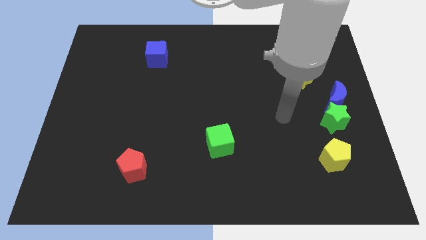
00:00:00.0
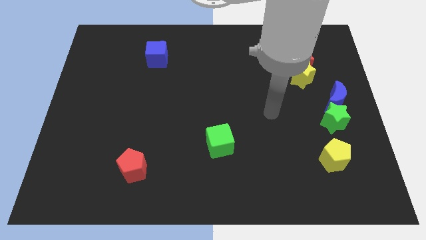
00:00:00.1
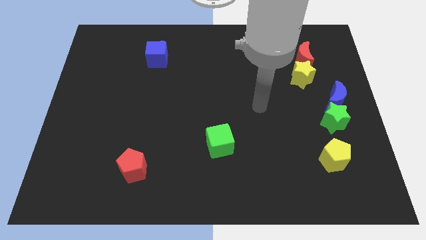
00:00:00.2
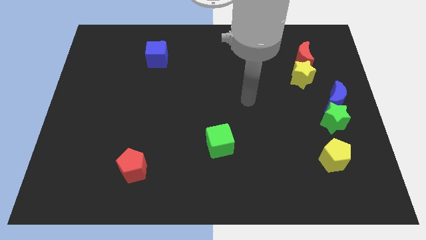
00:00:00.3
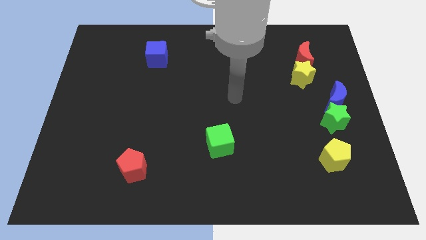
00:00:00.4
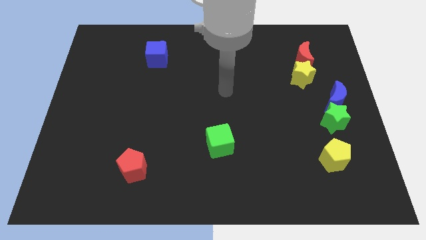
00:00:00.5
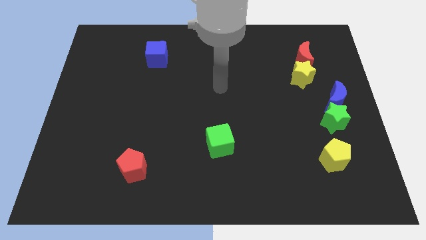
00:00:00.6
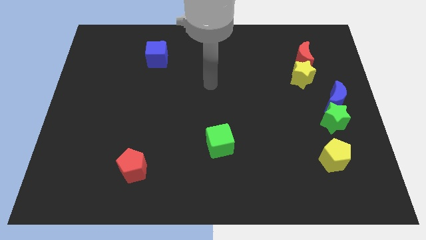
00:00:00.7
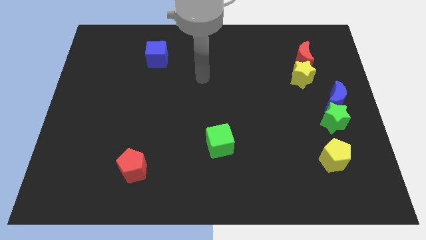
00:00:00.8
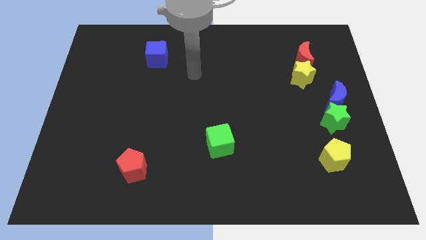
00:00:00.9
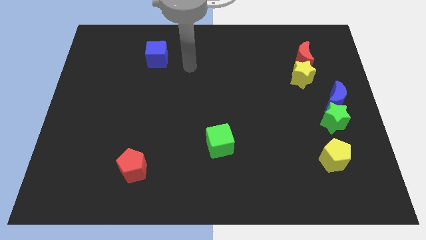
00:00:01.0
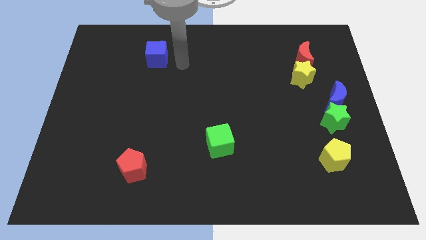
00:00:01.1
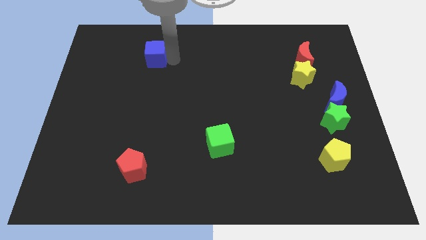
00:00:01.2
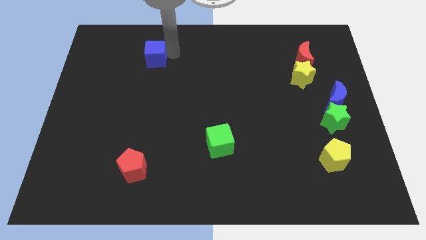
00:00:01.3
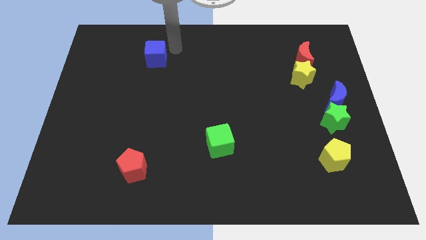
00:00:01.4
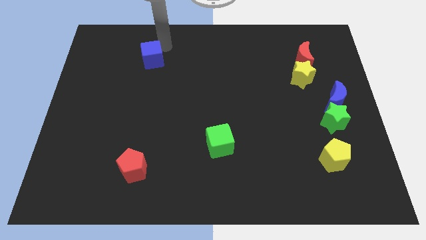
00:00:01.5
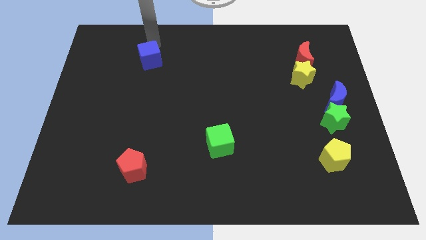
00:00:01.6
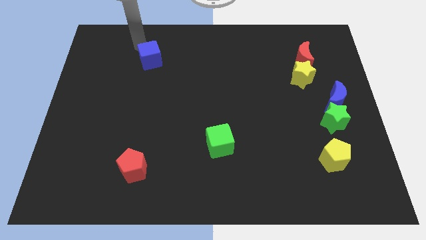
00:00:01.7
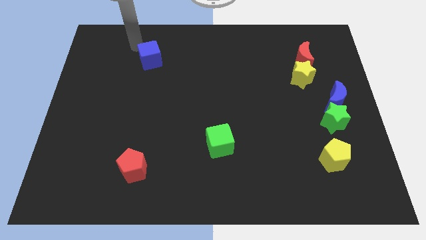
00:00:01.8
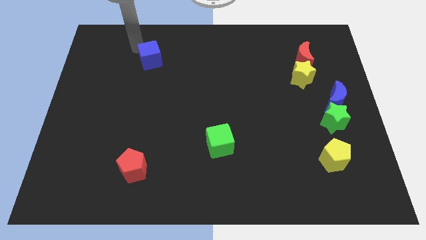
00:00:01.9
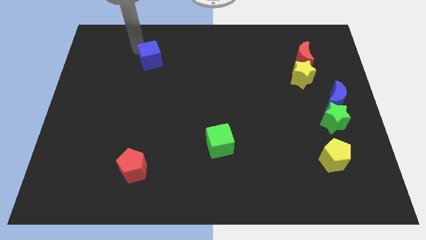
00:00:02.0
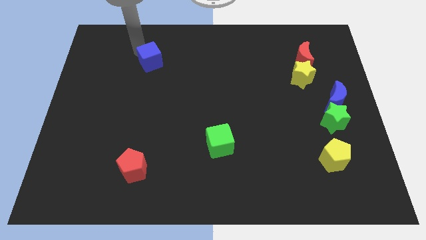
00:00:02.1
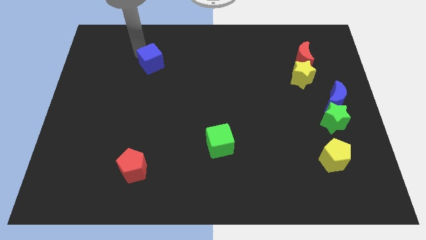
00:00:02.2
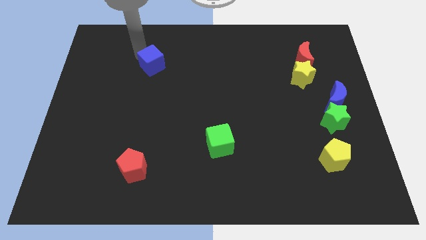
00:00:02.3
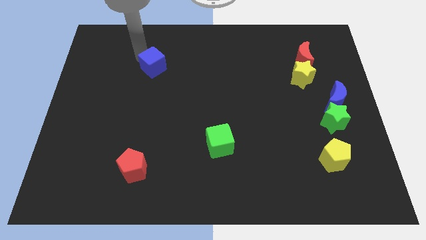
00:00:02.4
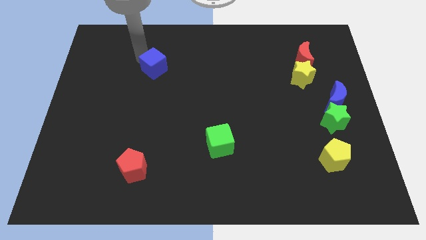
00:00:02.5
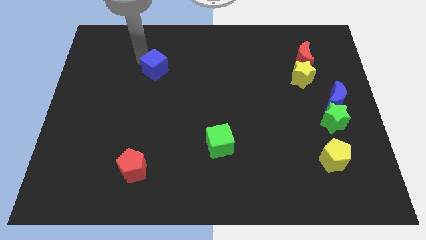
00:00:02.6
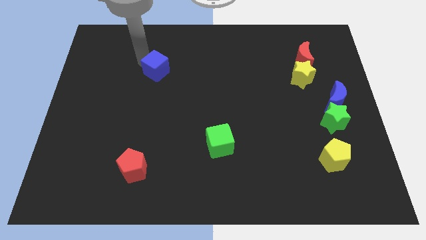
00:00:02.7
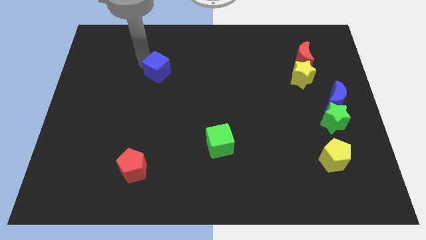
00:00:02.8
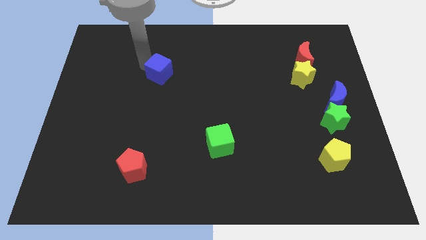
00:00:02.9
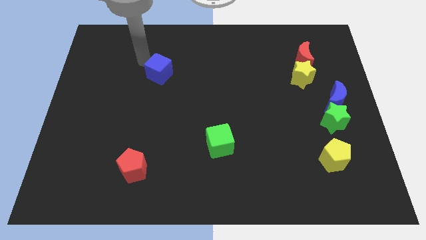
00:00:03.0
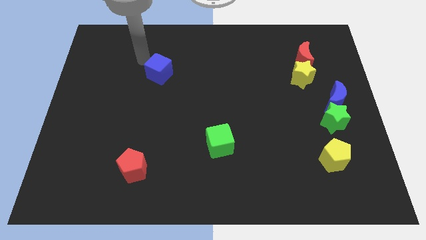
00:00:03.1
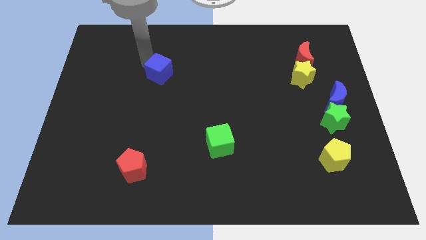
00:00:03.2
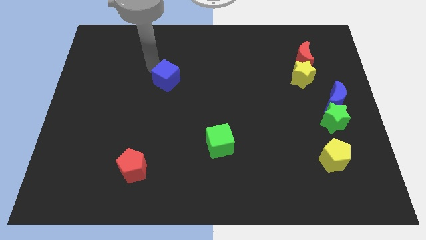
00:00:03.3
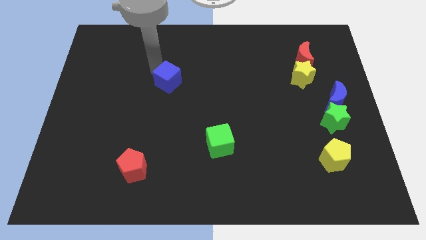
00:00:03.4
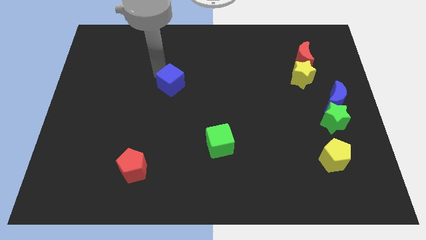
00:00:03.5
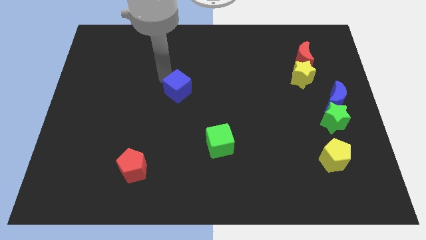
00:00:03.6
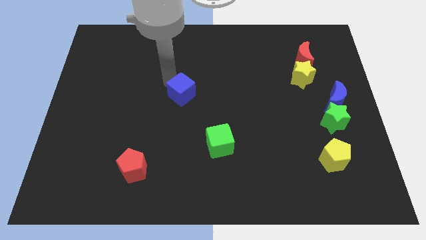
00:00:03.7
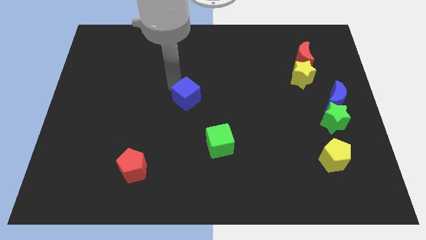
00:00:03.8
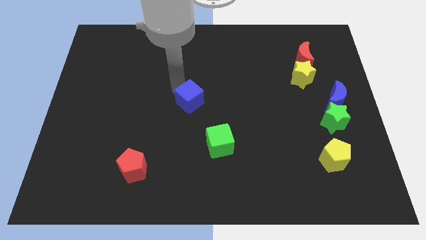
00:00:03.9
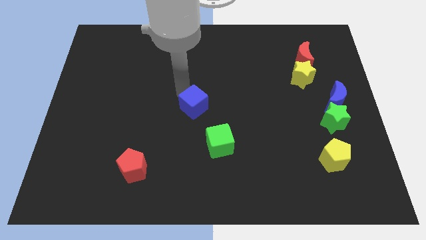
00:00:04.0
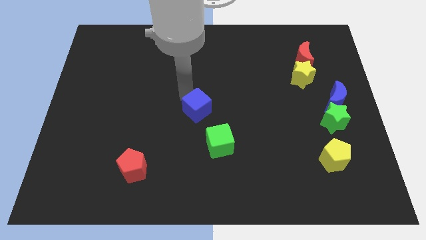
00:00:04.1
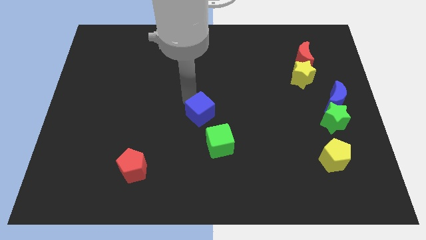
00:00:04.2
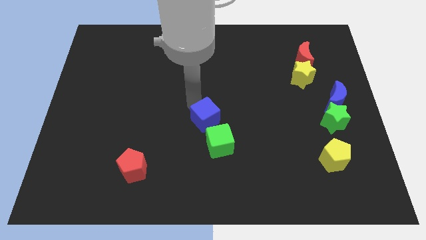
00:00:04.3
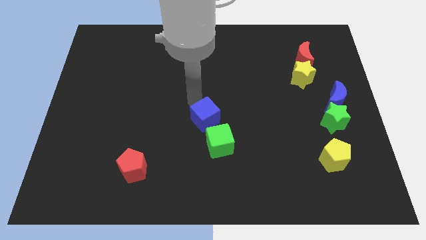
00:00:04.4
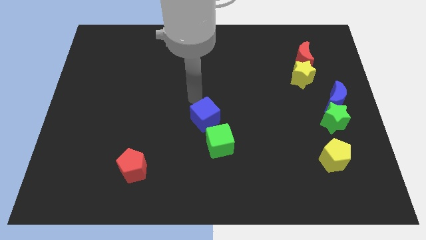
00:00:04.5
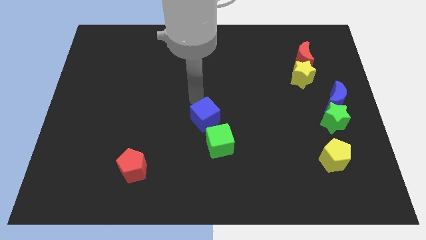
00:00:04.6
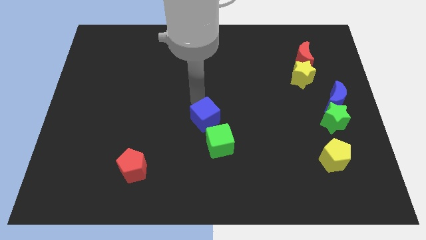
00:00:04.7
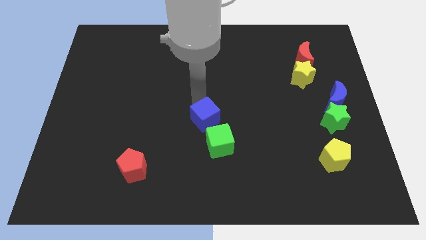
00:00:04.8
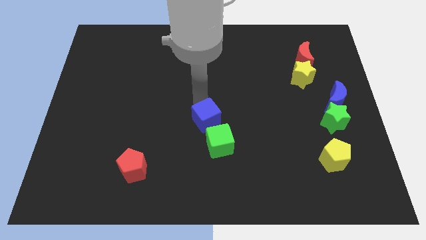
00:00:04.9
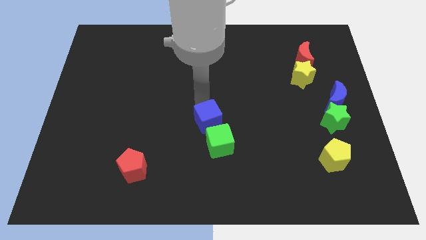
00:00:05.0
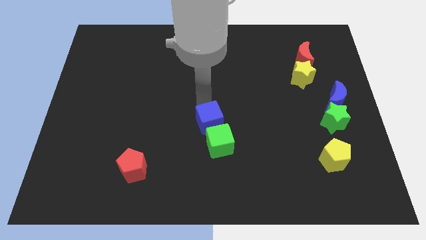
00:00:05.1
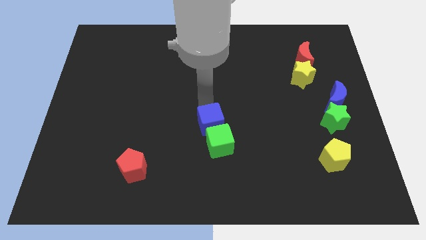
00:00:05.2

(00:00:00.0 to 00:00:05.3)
push the blue cube next to the green cube

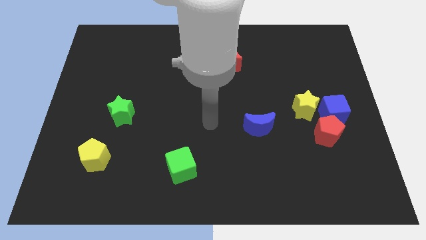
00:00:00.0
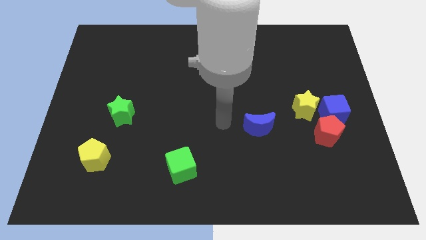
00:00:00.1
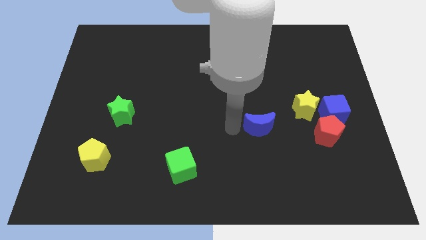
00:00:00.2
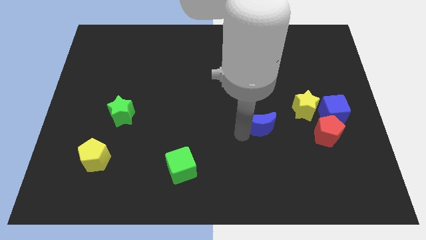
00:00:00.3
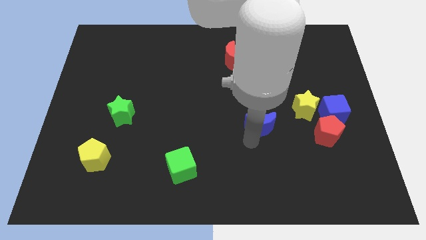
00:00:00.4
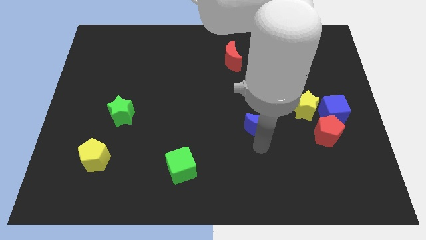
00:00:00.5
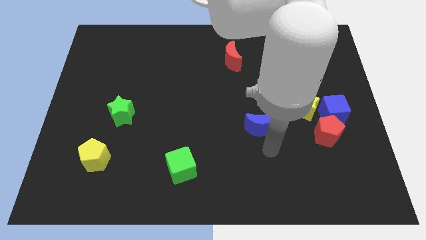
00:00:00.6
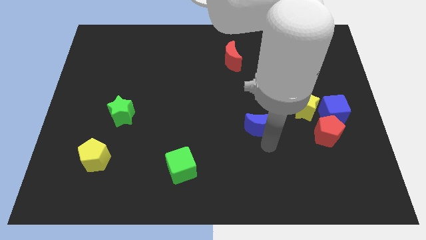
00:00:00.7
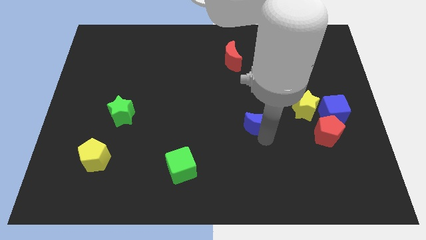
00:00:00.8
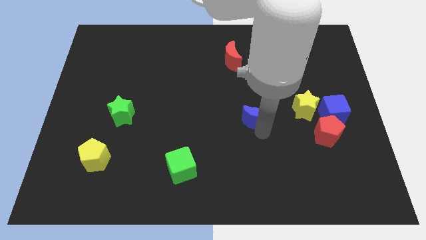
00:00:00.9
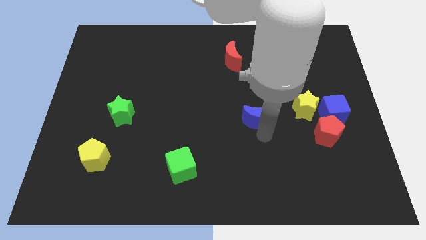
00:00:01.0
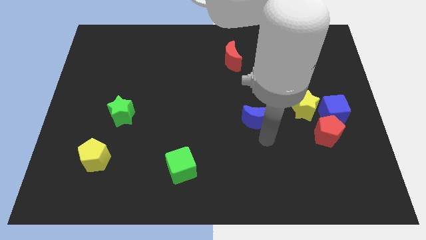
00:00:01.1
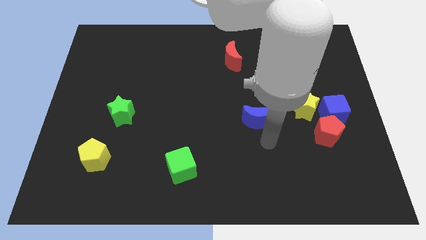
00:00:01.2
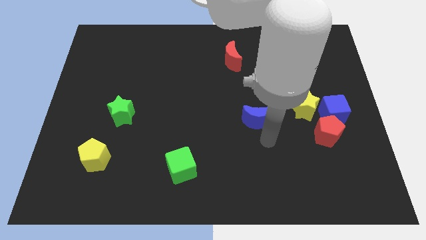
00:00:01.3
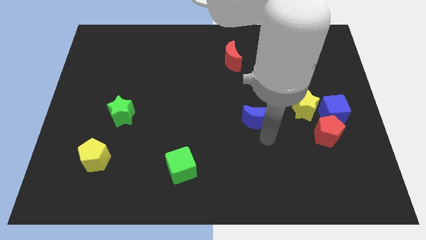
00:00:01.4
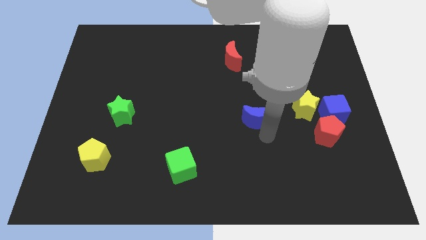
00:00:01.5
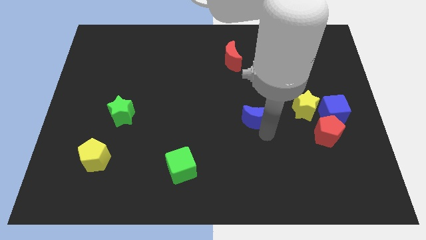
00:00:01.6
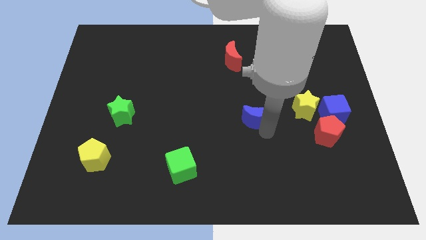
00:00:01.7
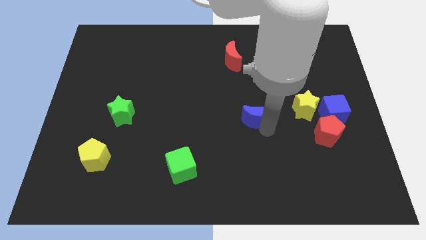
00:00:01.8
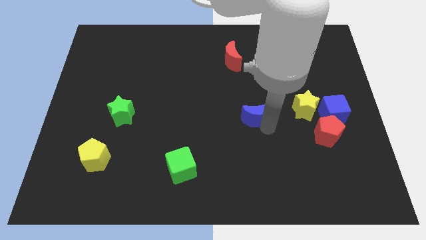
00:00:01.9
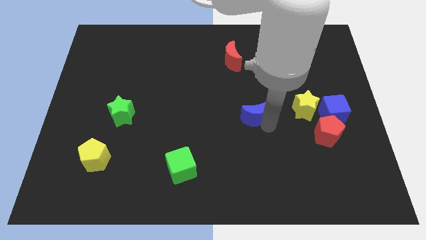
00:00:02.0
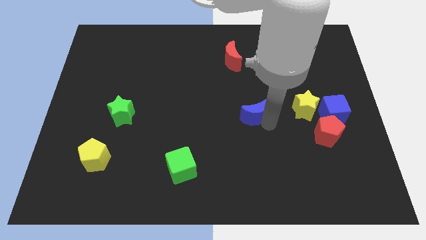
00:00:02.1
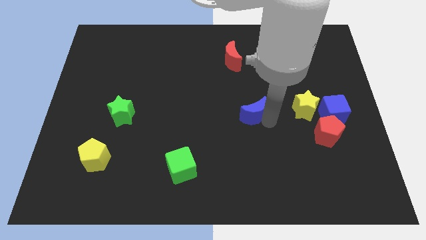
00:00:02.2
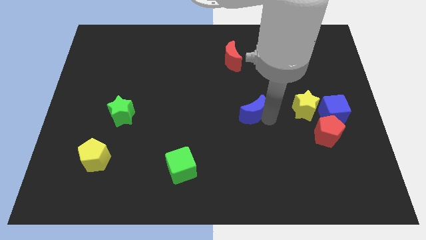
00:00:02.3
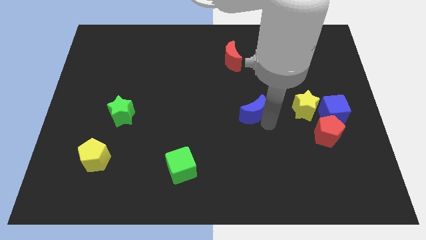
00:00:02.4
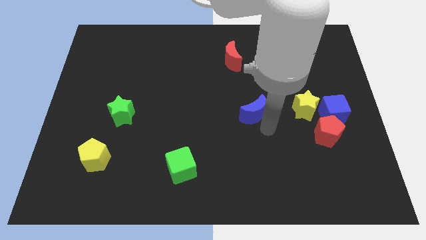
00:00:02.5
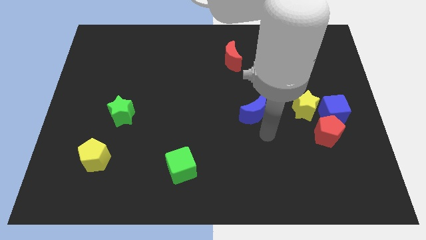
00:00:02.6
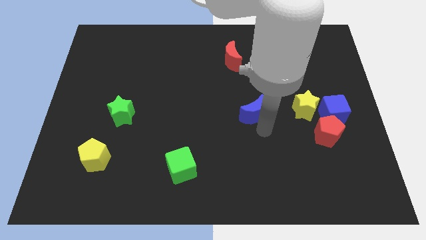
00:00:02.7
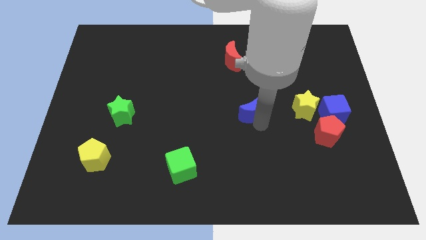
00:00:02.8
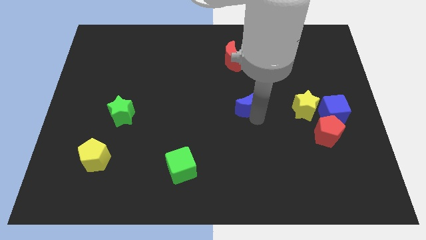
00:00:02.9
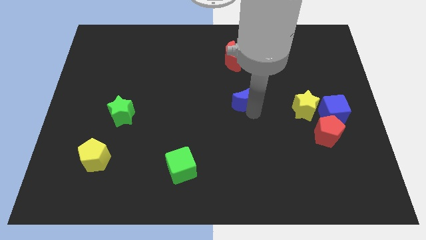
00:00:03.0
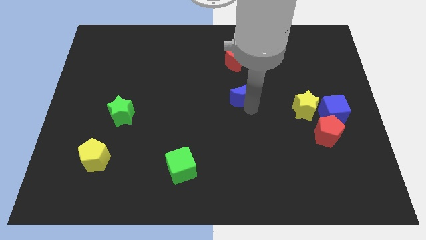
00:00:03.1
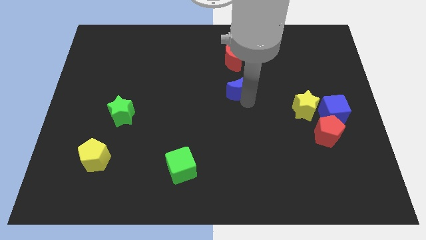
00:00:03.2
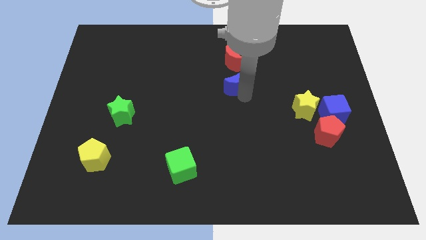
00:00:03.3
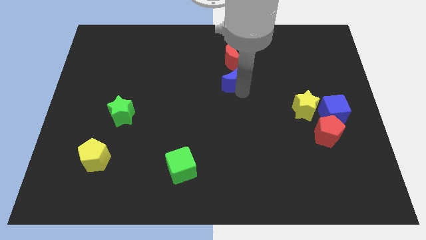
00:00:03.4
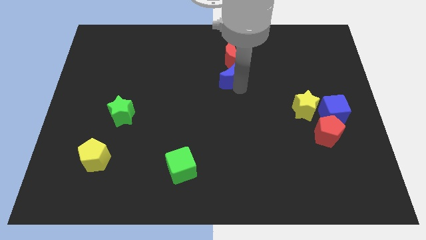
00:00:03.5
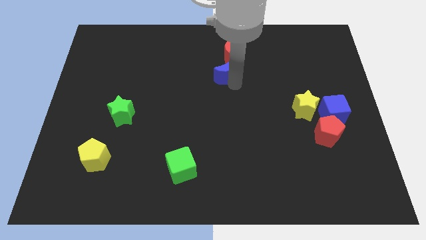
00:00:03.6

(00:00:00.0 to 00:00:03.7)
move the blue moon towards the red moon
